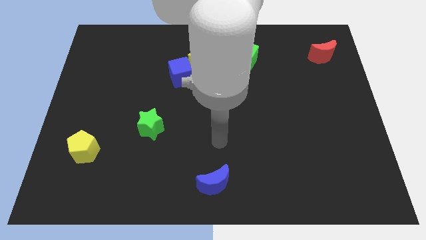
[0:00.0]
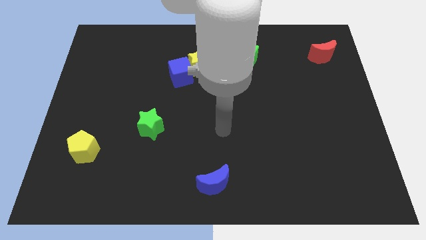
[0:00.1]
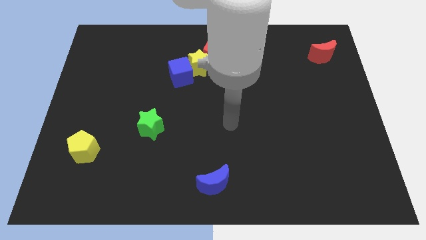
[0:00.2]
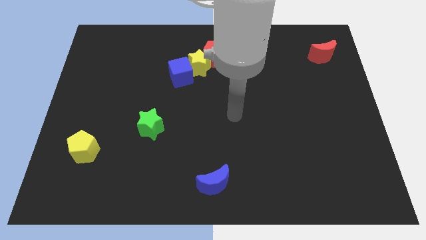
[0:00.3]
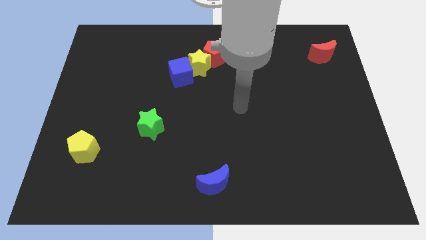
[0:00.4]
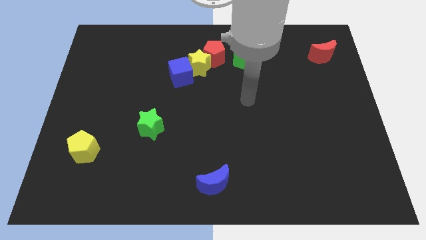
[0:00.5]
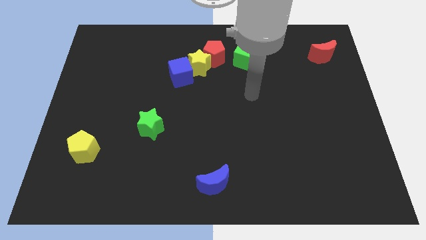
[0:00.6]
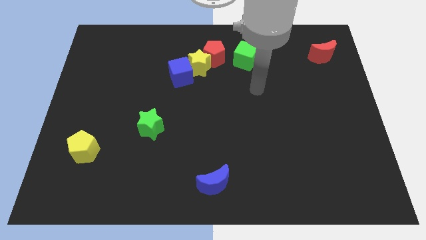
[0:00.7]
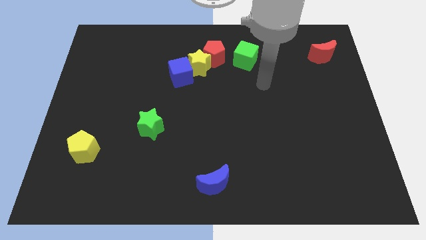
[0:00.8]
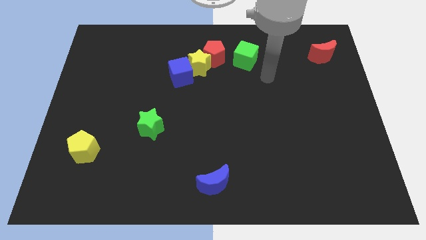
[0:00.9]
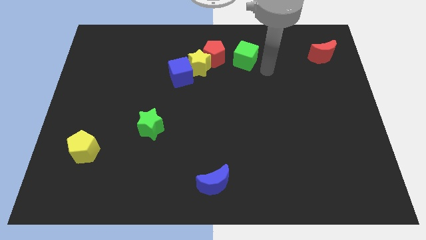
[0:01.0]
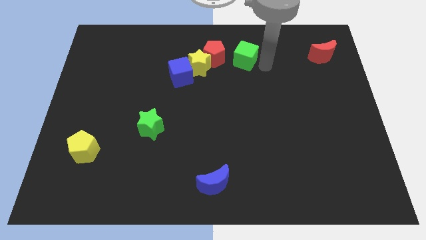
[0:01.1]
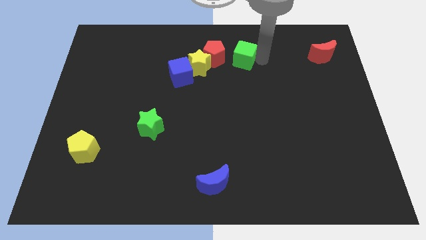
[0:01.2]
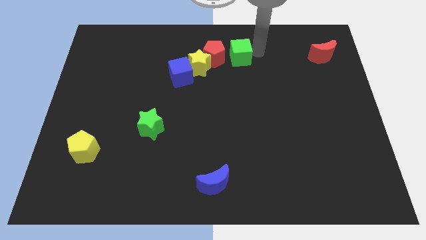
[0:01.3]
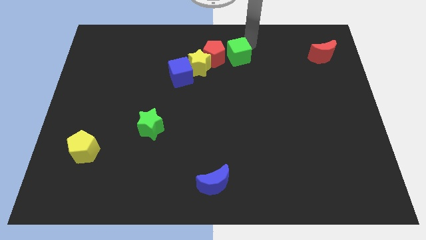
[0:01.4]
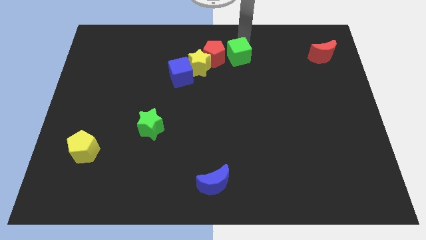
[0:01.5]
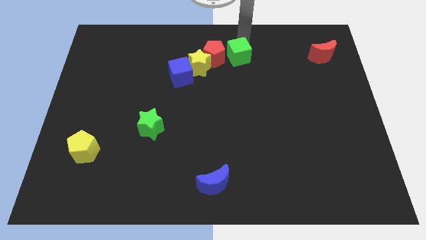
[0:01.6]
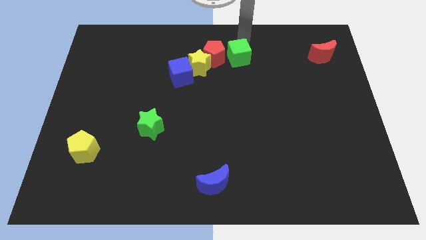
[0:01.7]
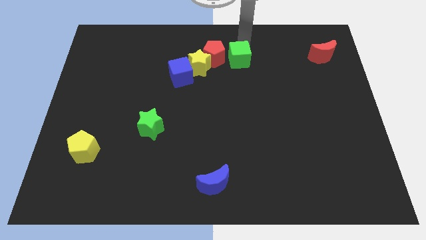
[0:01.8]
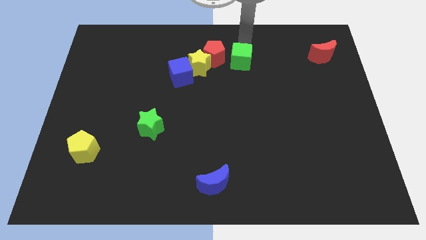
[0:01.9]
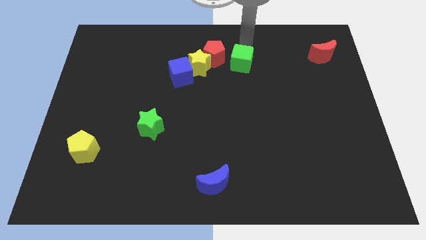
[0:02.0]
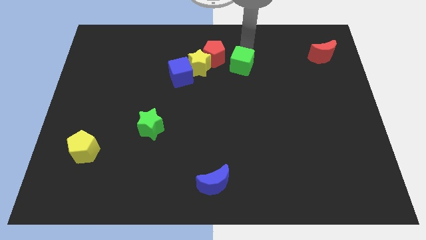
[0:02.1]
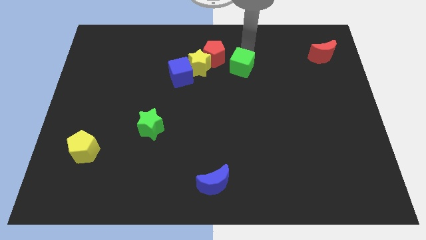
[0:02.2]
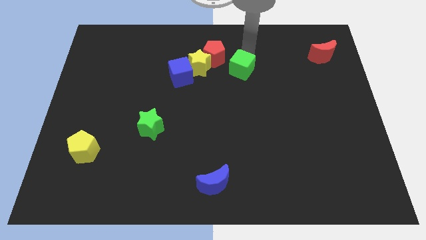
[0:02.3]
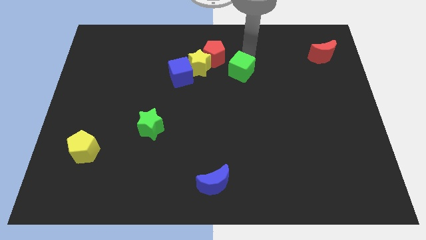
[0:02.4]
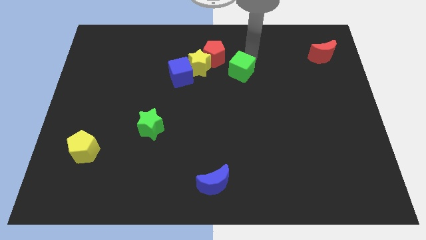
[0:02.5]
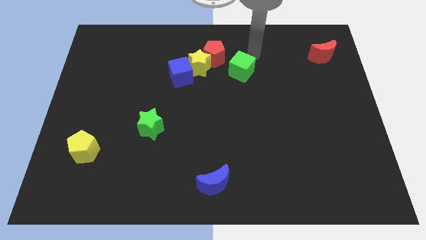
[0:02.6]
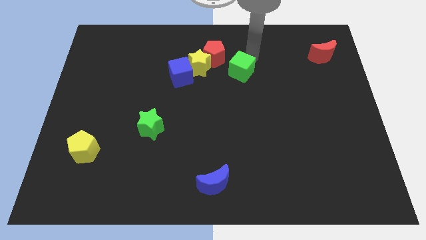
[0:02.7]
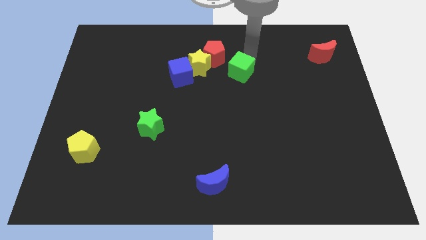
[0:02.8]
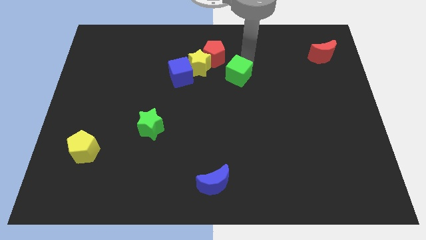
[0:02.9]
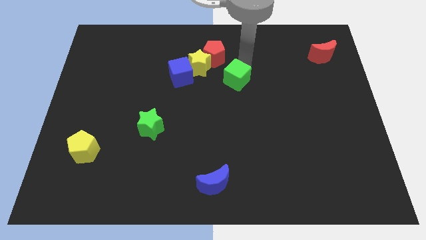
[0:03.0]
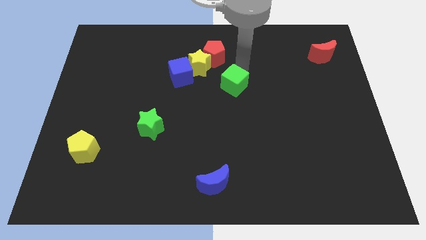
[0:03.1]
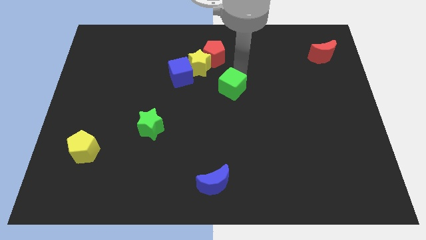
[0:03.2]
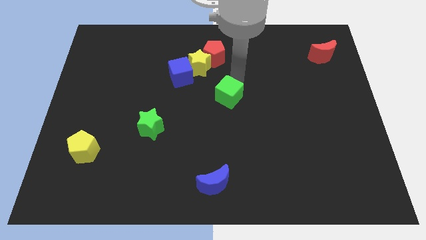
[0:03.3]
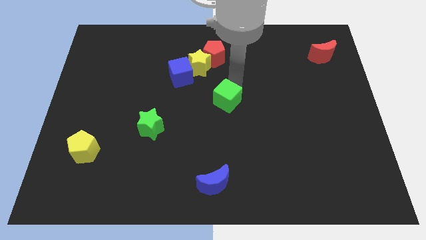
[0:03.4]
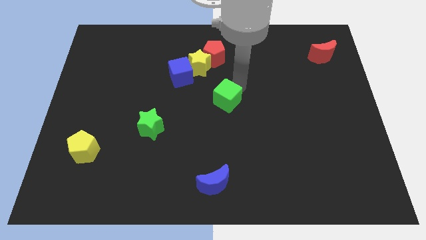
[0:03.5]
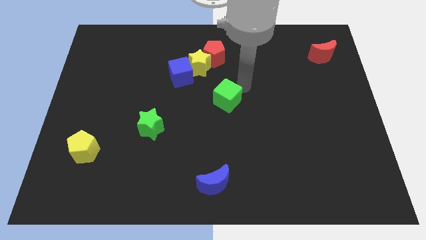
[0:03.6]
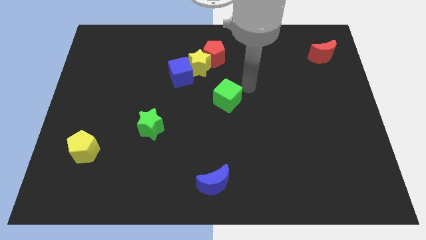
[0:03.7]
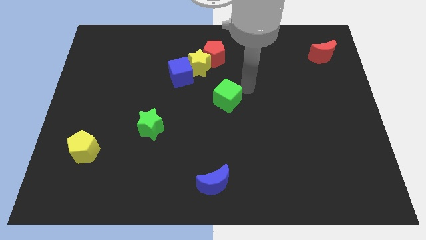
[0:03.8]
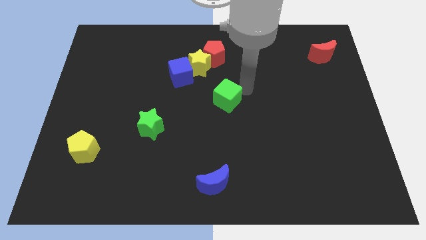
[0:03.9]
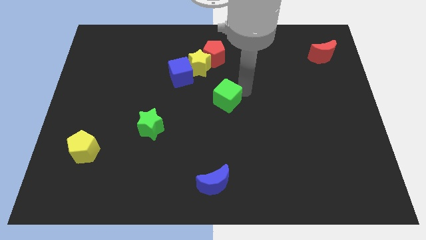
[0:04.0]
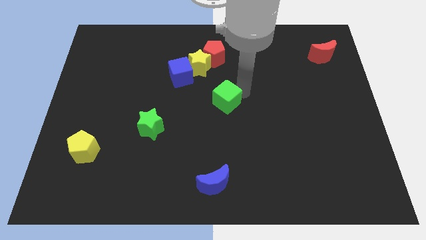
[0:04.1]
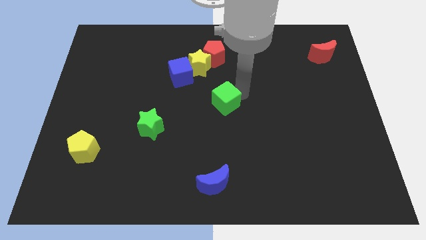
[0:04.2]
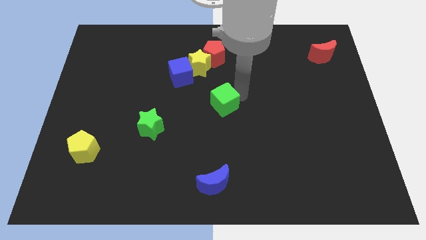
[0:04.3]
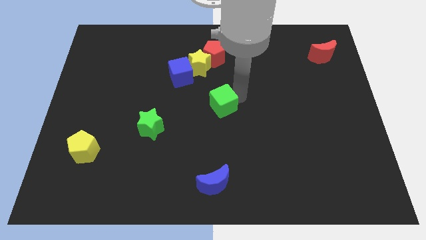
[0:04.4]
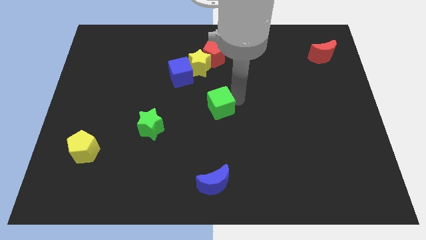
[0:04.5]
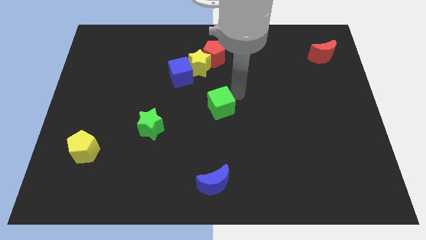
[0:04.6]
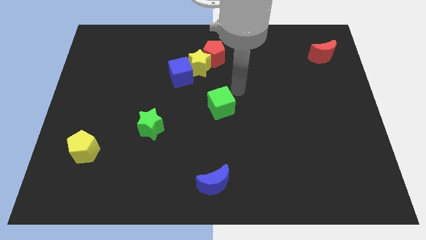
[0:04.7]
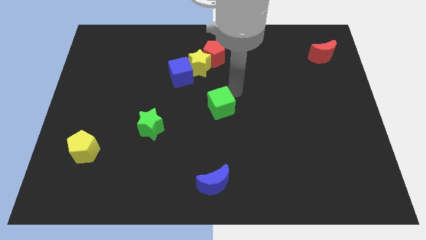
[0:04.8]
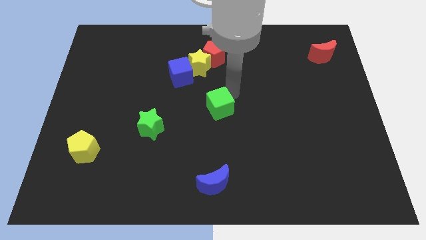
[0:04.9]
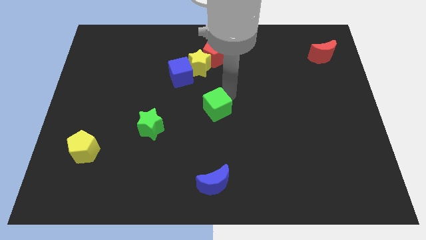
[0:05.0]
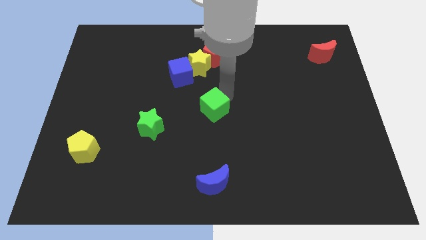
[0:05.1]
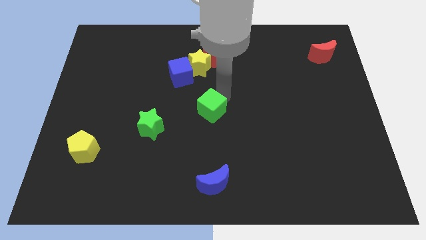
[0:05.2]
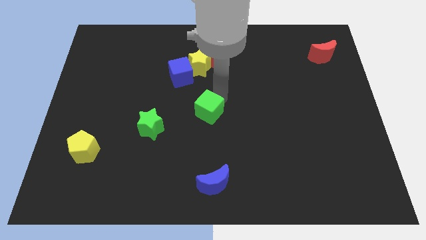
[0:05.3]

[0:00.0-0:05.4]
slide the green cube just right of the green star

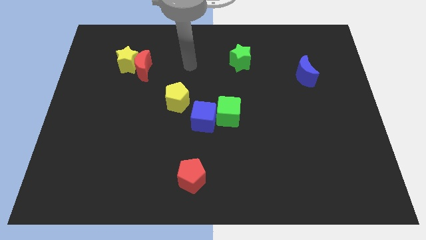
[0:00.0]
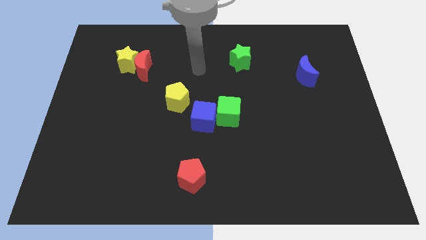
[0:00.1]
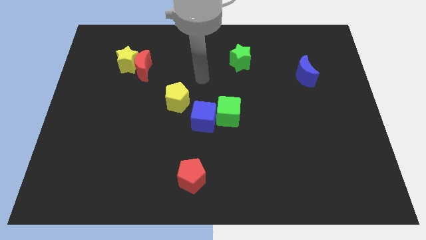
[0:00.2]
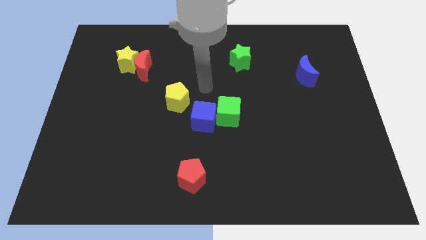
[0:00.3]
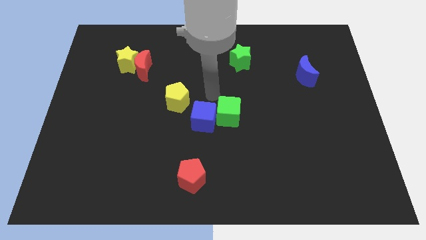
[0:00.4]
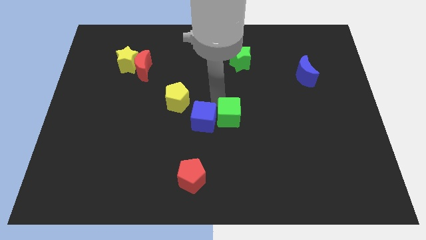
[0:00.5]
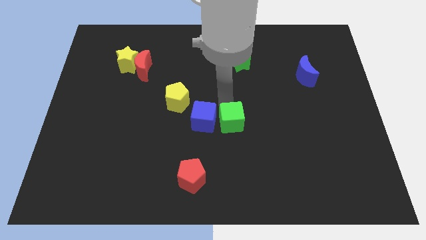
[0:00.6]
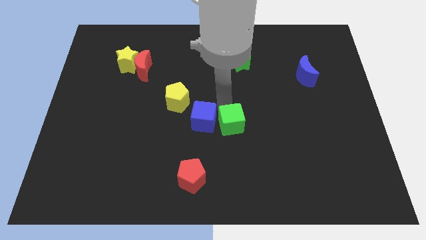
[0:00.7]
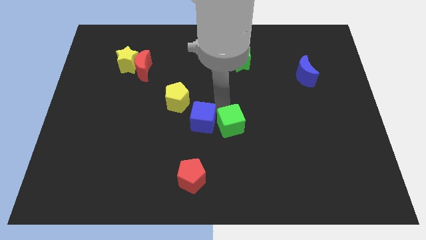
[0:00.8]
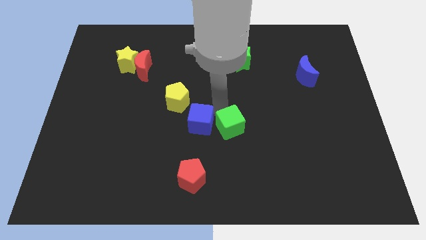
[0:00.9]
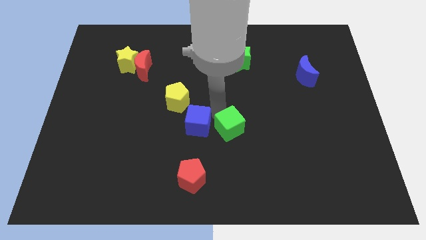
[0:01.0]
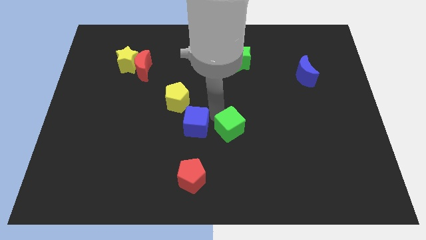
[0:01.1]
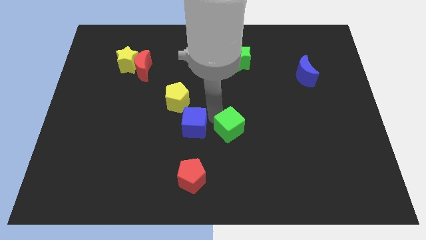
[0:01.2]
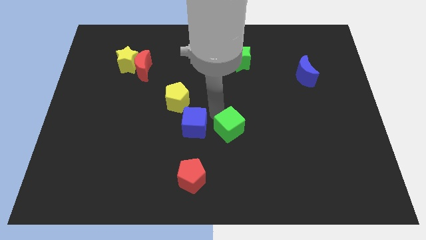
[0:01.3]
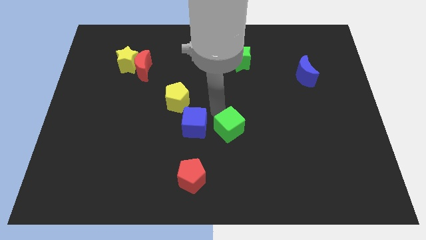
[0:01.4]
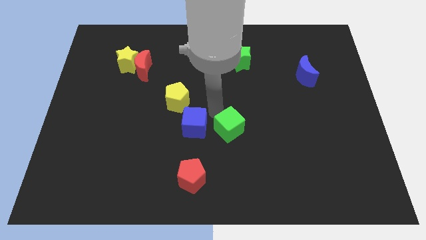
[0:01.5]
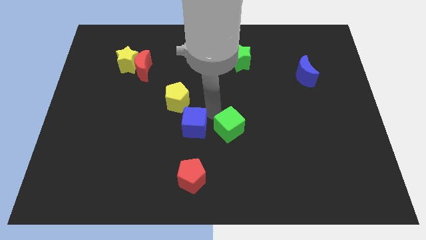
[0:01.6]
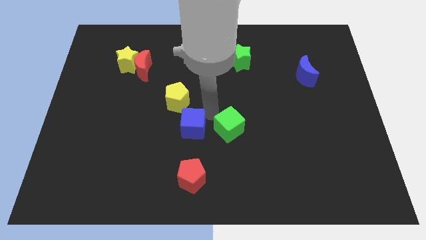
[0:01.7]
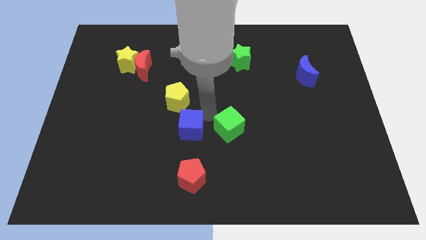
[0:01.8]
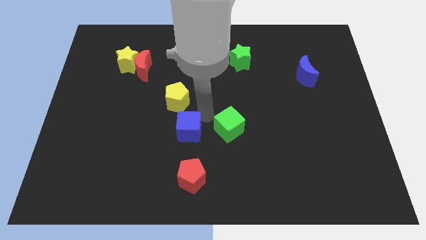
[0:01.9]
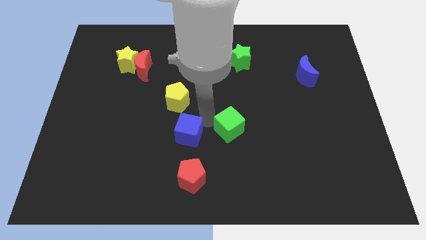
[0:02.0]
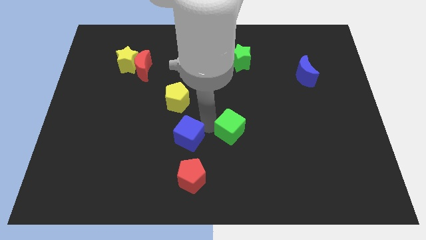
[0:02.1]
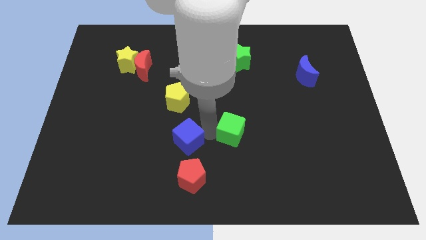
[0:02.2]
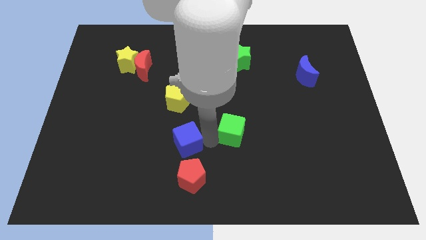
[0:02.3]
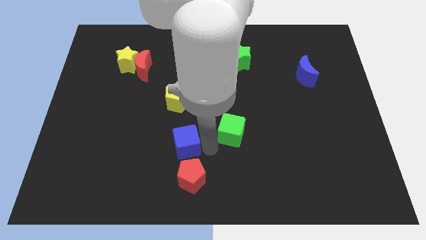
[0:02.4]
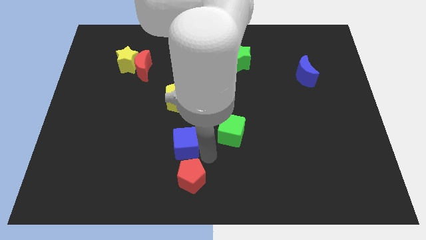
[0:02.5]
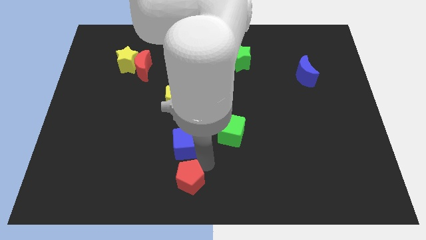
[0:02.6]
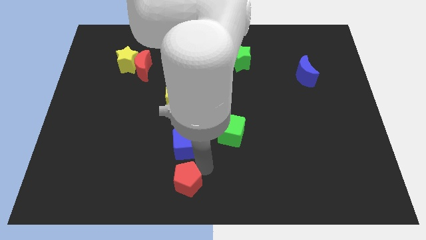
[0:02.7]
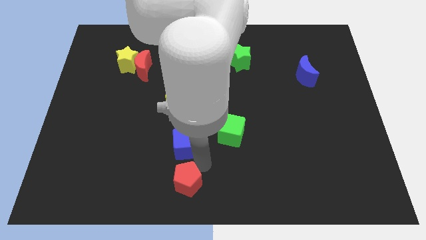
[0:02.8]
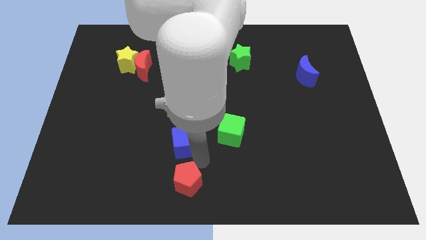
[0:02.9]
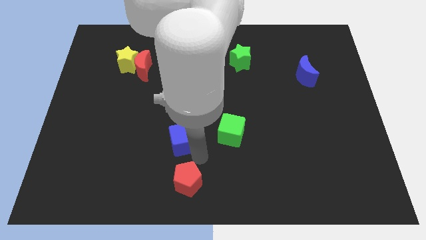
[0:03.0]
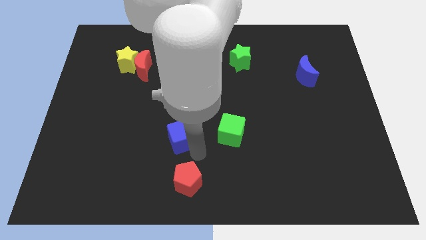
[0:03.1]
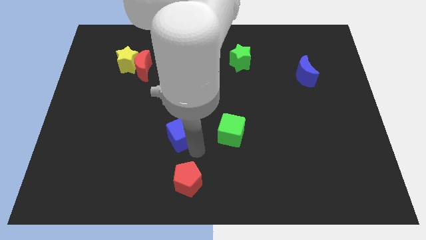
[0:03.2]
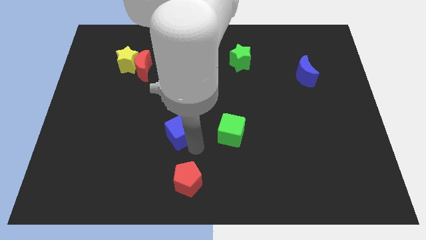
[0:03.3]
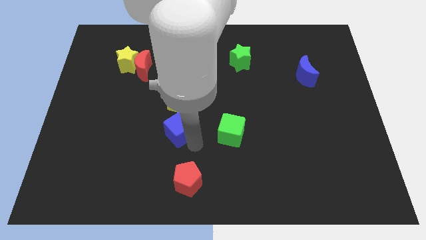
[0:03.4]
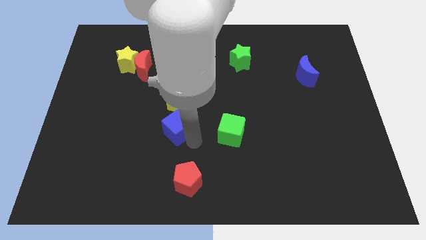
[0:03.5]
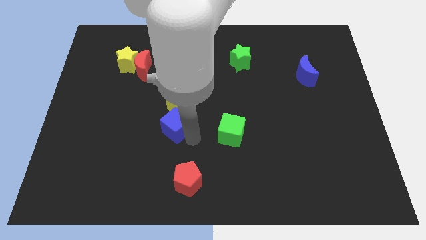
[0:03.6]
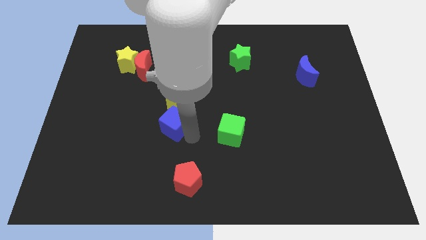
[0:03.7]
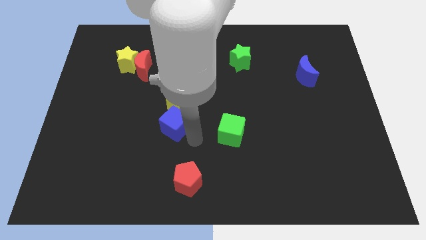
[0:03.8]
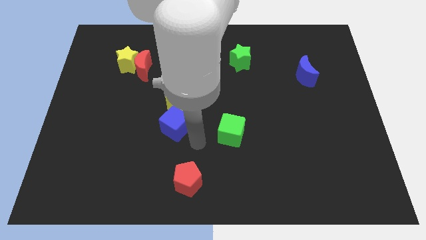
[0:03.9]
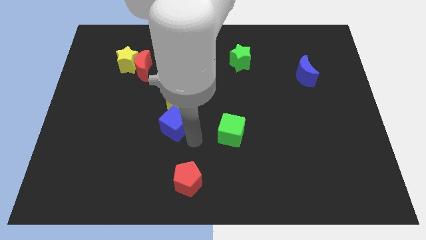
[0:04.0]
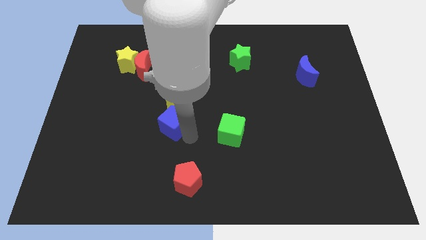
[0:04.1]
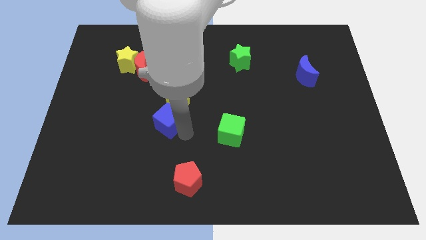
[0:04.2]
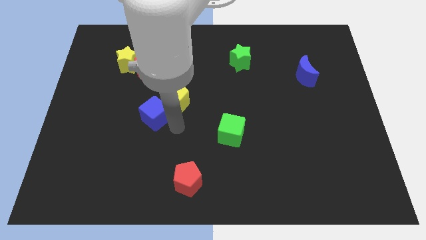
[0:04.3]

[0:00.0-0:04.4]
push the blue cube to the left side of the yellow pentagon
